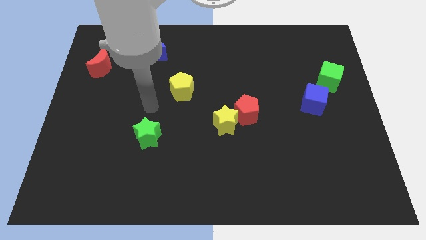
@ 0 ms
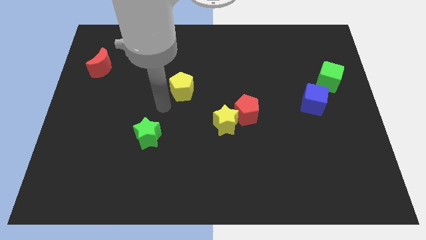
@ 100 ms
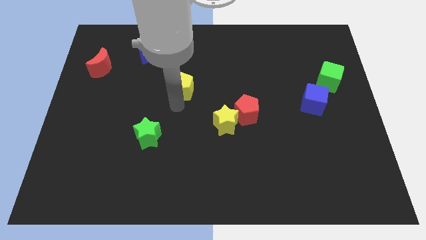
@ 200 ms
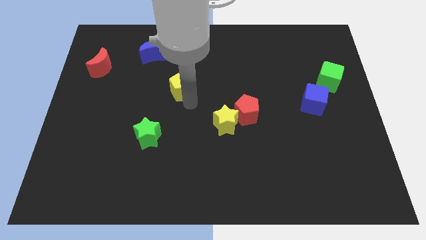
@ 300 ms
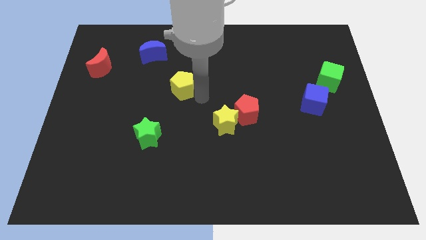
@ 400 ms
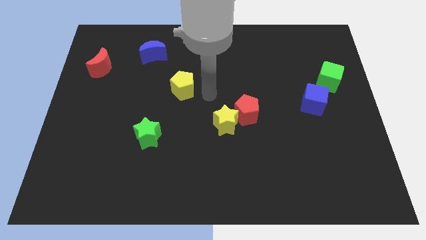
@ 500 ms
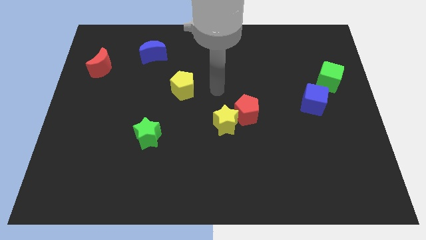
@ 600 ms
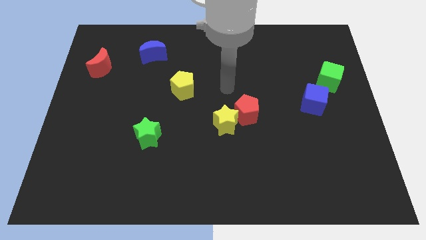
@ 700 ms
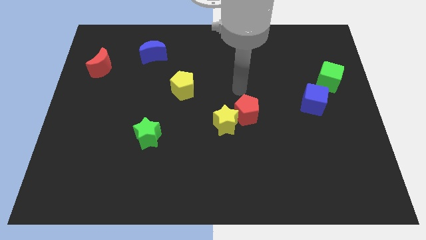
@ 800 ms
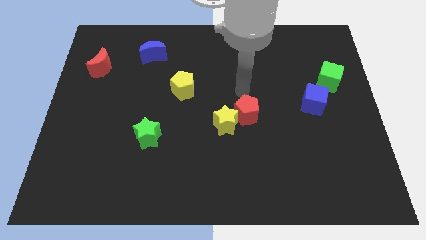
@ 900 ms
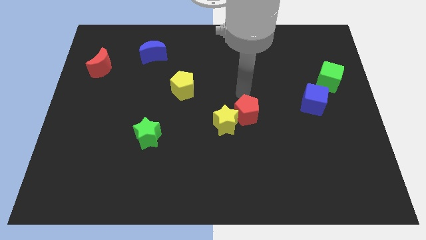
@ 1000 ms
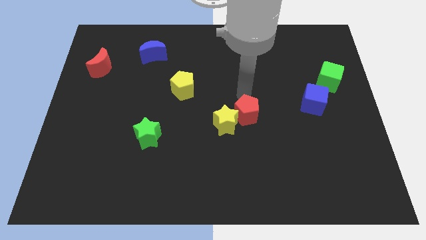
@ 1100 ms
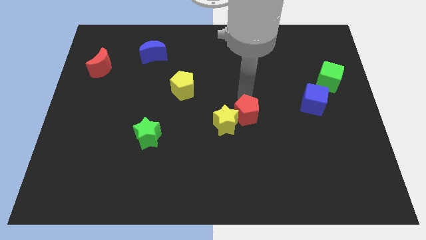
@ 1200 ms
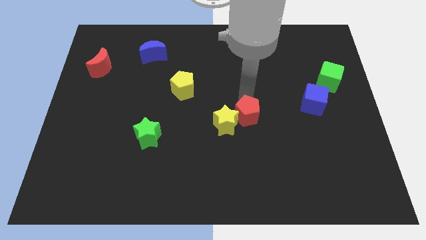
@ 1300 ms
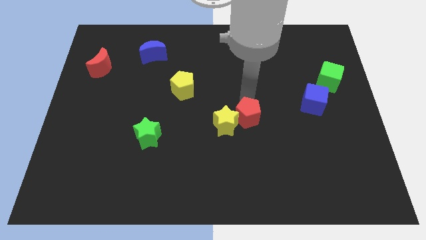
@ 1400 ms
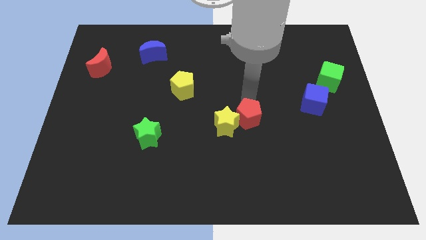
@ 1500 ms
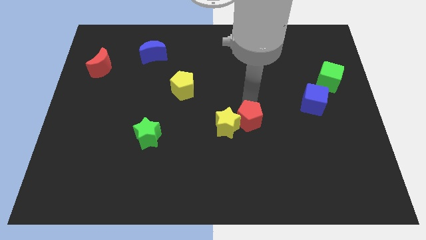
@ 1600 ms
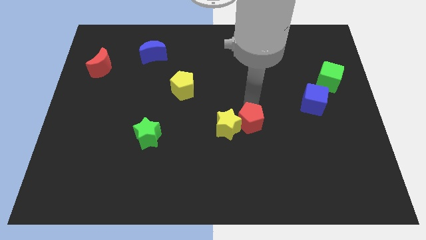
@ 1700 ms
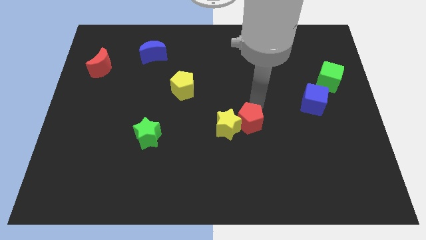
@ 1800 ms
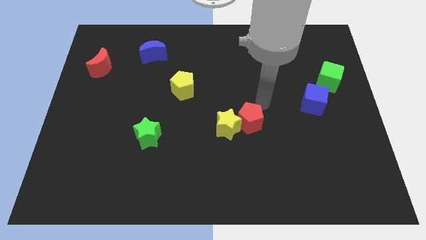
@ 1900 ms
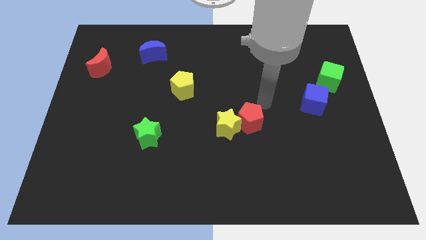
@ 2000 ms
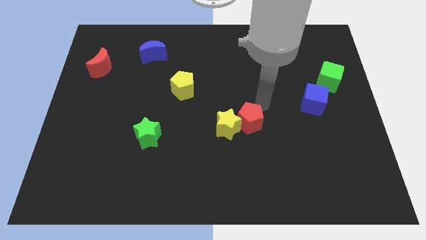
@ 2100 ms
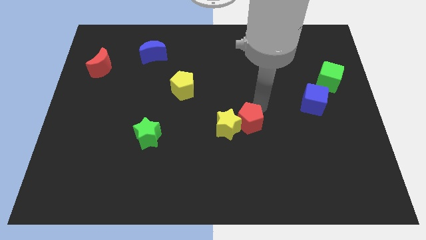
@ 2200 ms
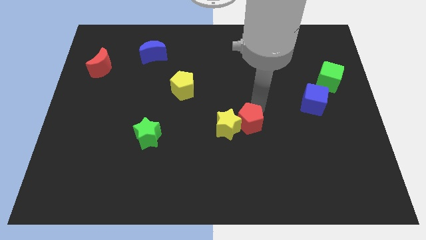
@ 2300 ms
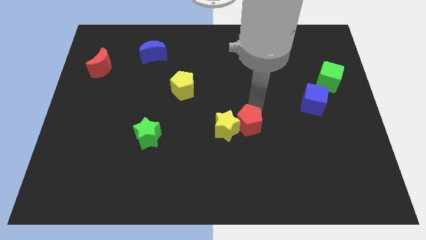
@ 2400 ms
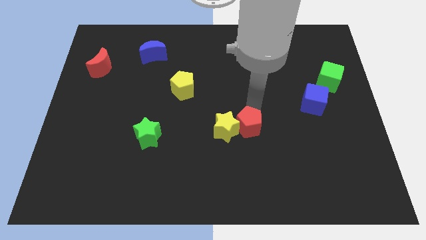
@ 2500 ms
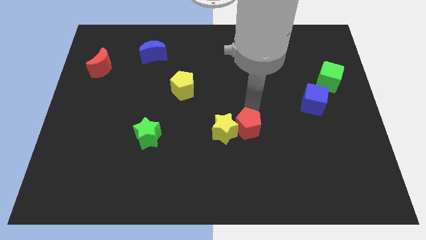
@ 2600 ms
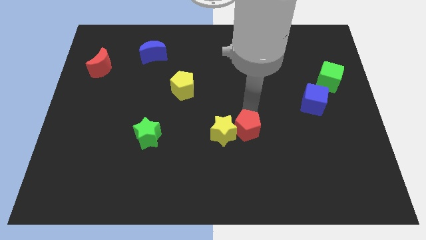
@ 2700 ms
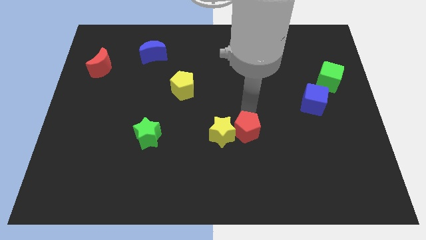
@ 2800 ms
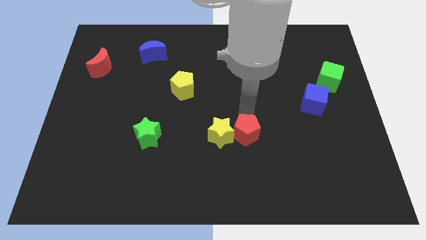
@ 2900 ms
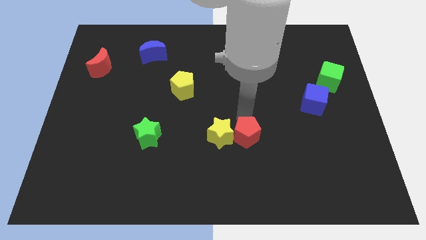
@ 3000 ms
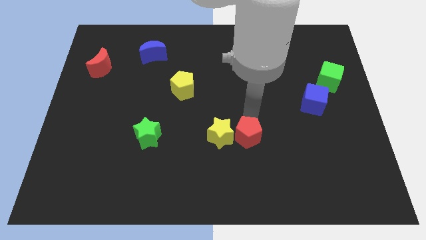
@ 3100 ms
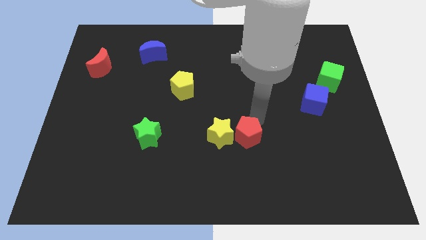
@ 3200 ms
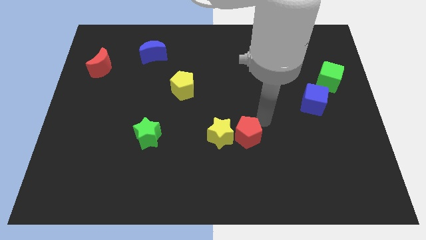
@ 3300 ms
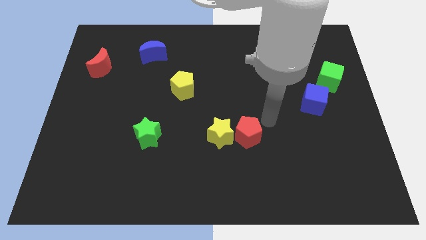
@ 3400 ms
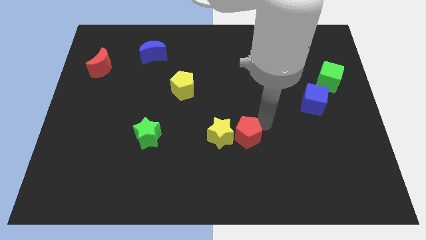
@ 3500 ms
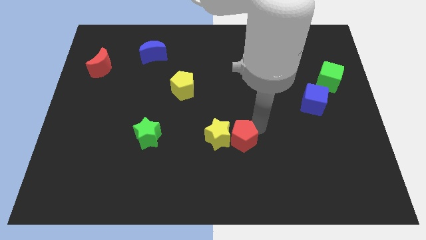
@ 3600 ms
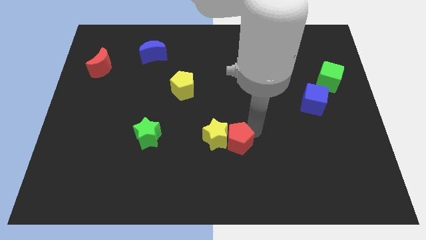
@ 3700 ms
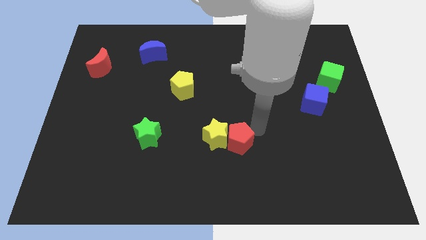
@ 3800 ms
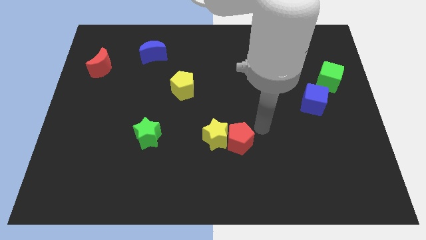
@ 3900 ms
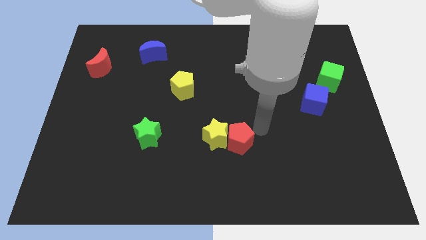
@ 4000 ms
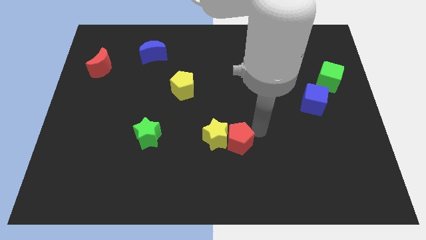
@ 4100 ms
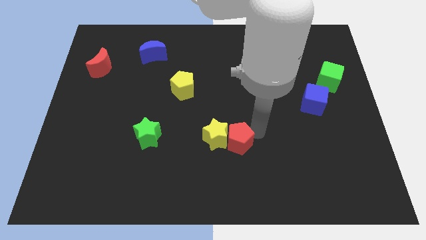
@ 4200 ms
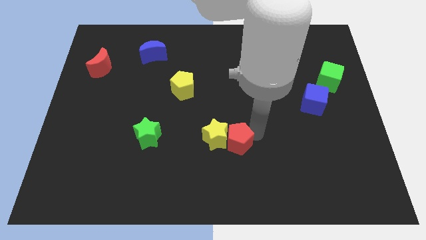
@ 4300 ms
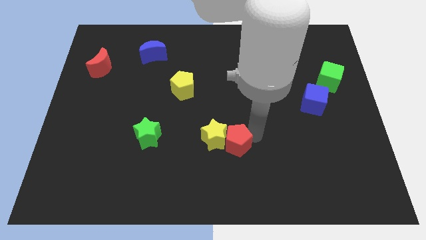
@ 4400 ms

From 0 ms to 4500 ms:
push the red pentagon a little bit downwards and left

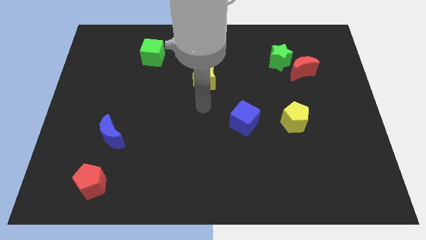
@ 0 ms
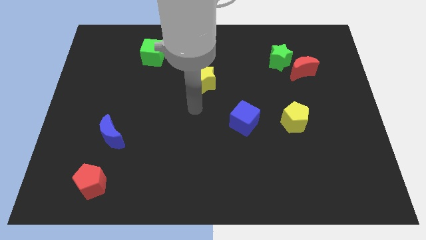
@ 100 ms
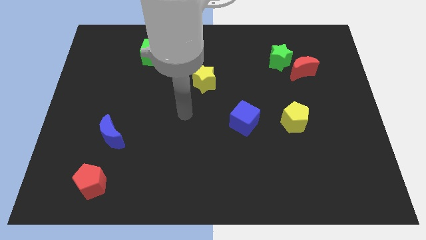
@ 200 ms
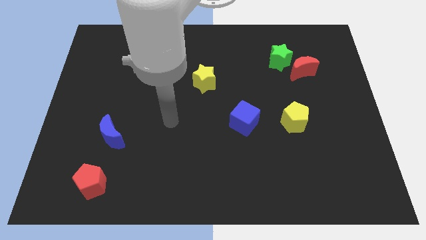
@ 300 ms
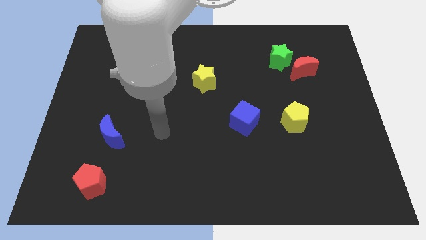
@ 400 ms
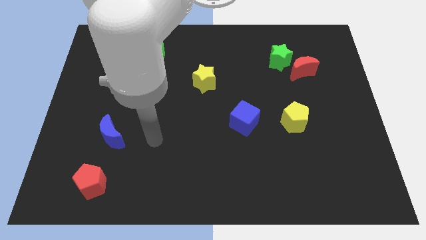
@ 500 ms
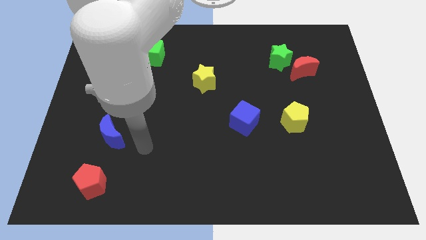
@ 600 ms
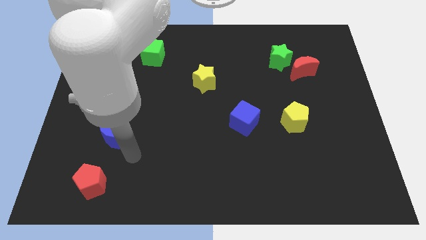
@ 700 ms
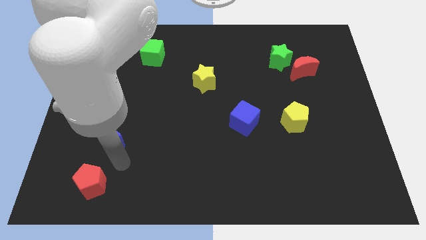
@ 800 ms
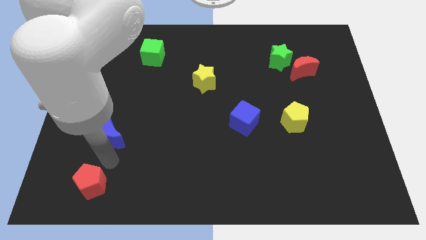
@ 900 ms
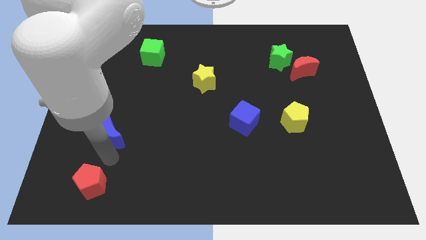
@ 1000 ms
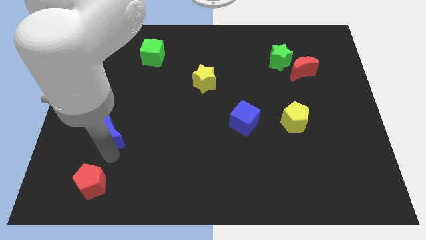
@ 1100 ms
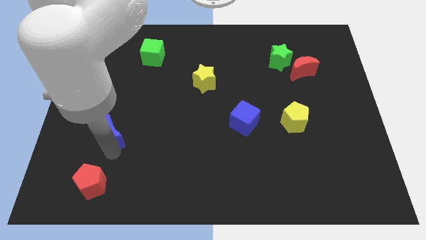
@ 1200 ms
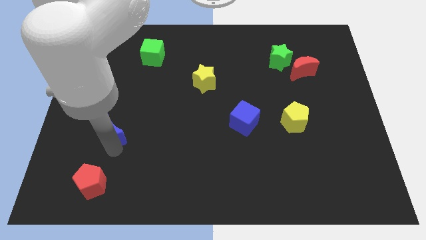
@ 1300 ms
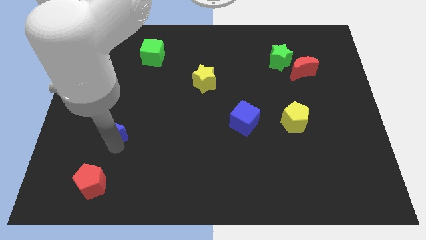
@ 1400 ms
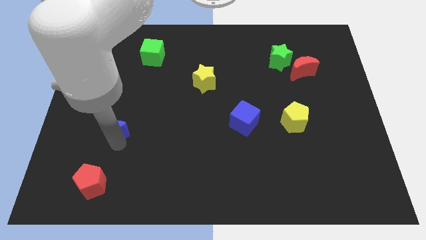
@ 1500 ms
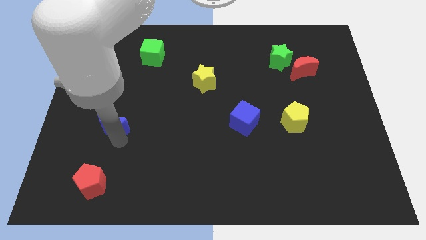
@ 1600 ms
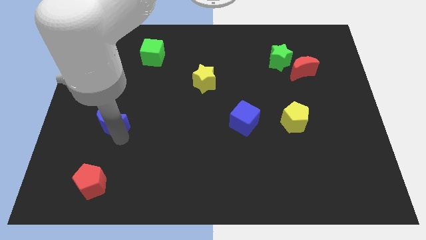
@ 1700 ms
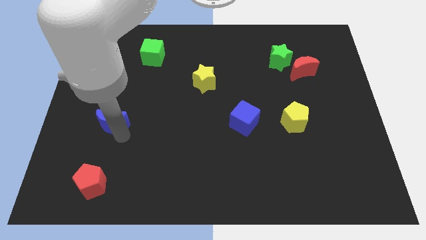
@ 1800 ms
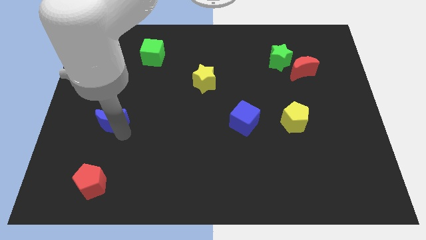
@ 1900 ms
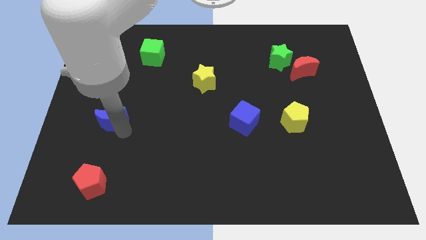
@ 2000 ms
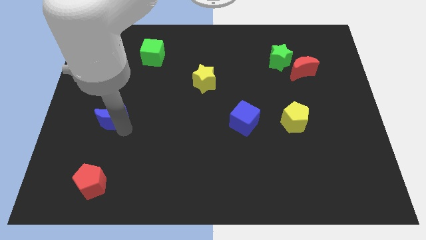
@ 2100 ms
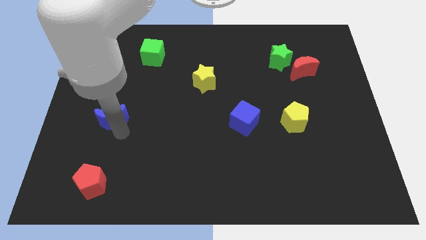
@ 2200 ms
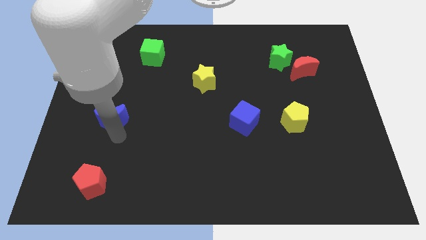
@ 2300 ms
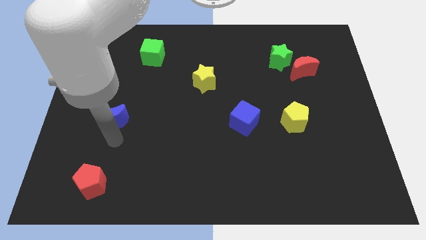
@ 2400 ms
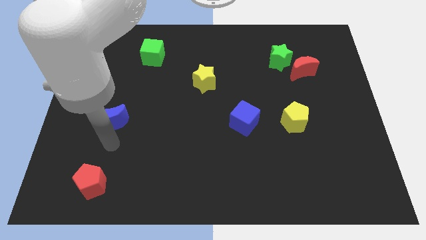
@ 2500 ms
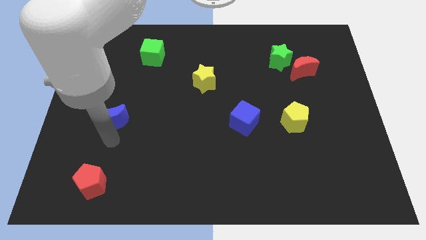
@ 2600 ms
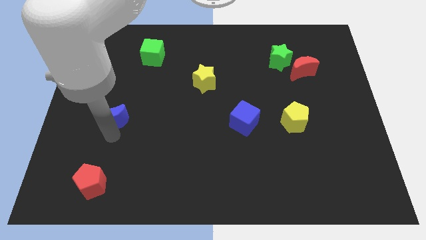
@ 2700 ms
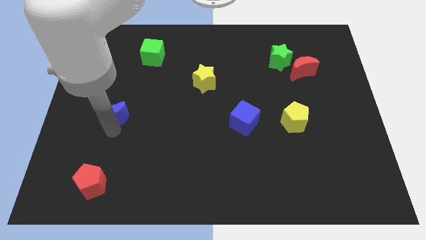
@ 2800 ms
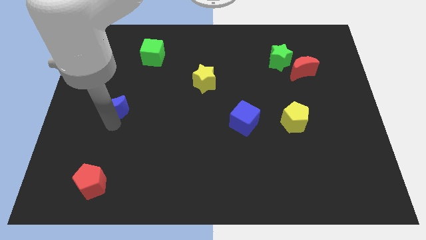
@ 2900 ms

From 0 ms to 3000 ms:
slightly slide the blue moon up

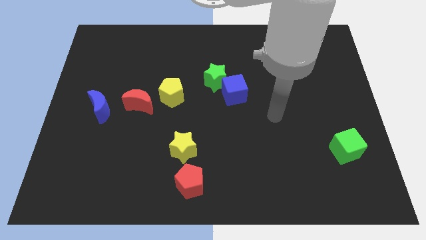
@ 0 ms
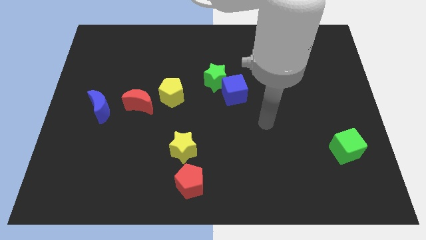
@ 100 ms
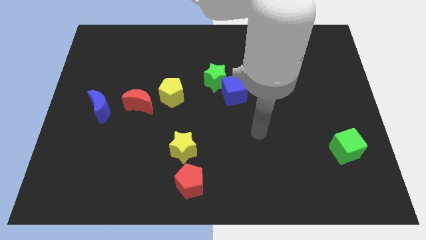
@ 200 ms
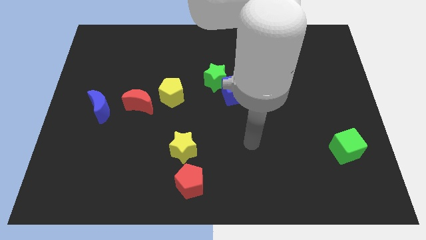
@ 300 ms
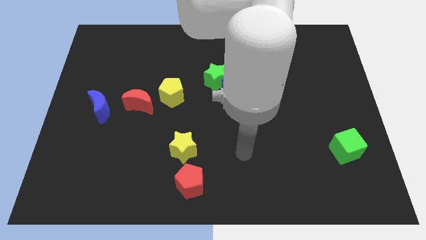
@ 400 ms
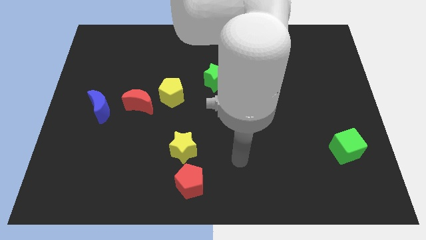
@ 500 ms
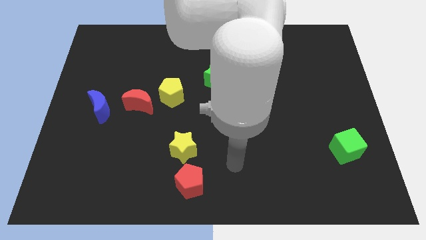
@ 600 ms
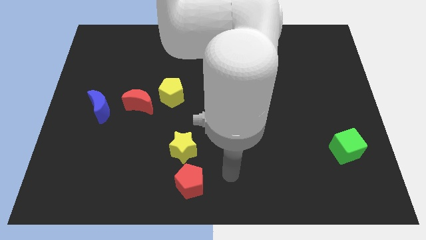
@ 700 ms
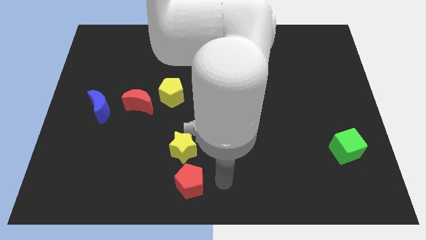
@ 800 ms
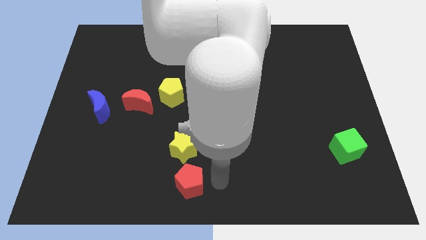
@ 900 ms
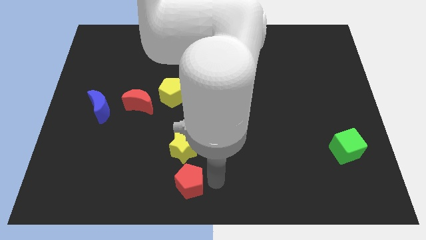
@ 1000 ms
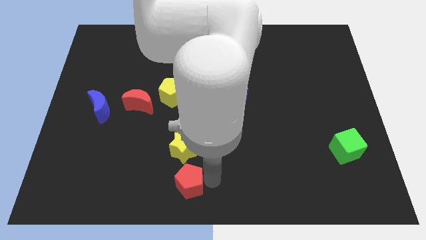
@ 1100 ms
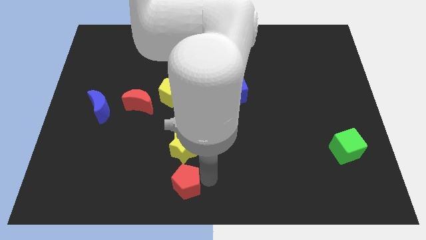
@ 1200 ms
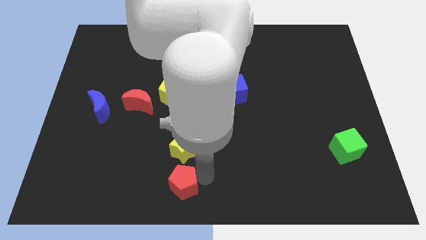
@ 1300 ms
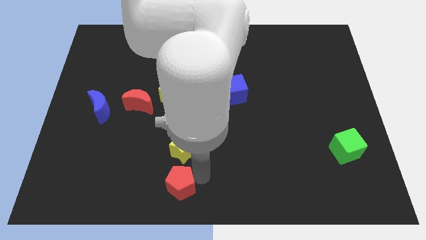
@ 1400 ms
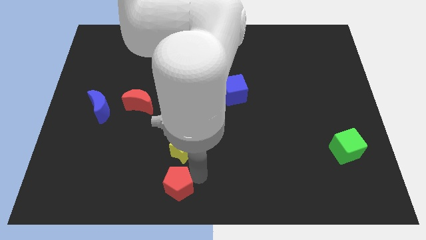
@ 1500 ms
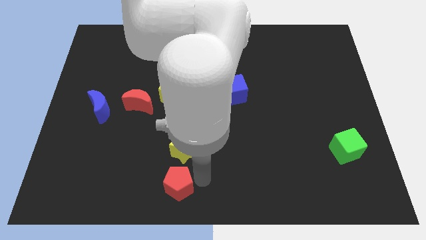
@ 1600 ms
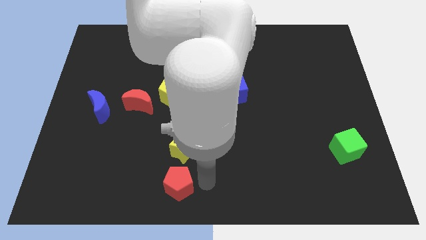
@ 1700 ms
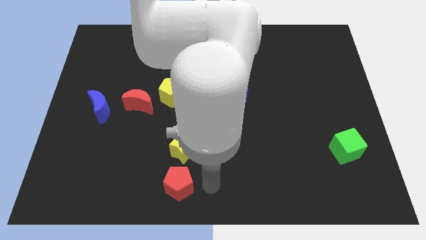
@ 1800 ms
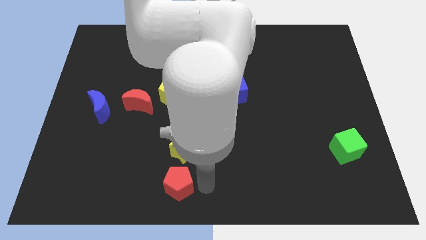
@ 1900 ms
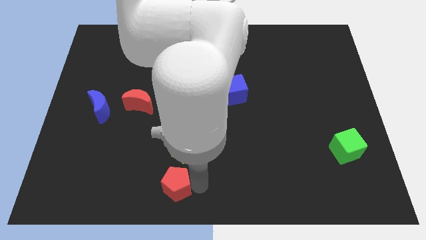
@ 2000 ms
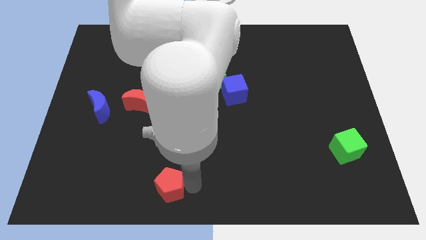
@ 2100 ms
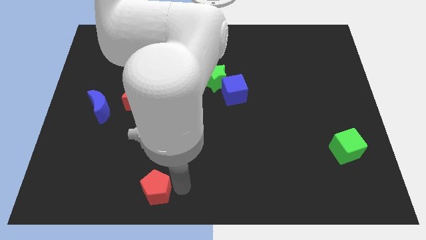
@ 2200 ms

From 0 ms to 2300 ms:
slide the red pentagon to the left a little
